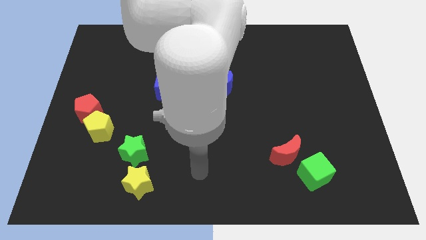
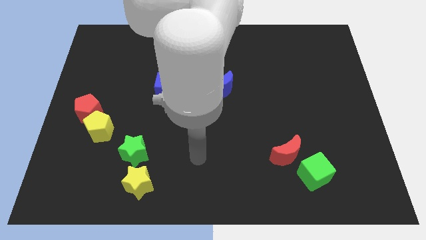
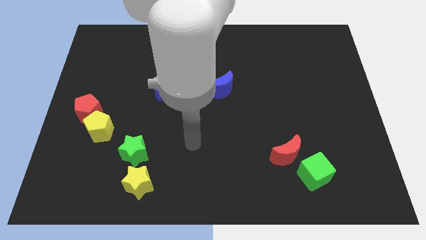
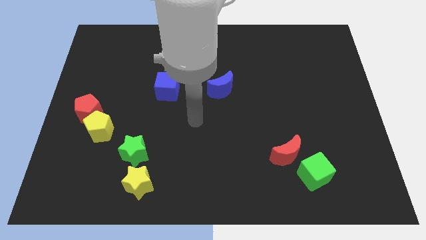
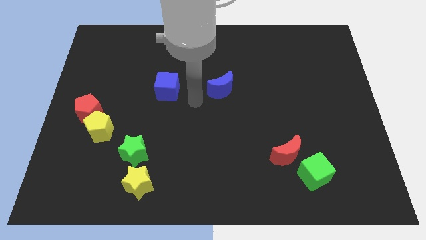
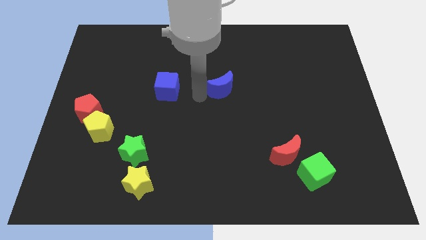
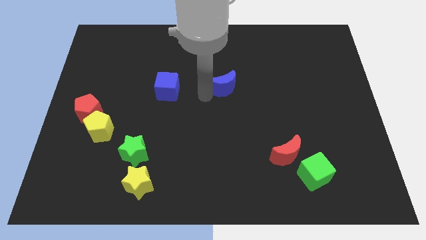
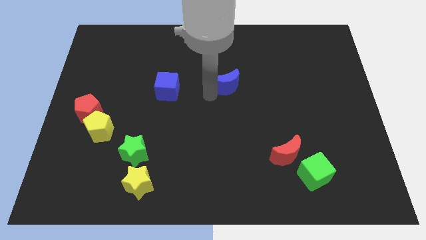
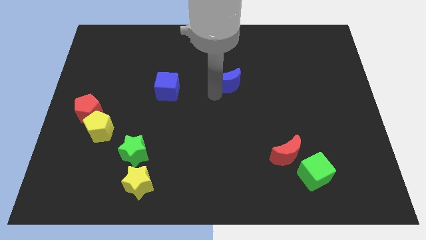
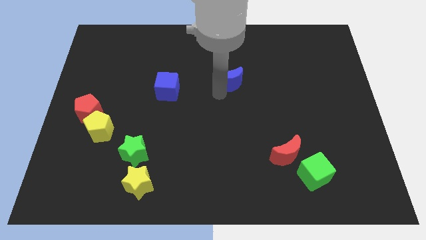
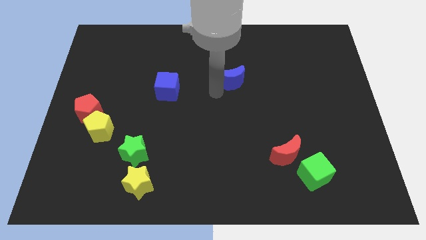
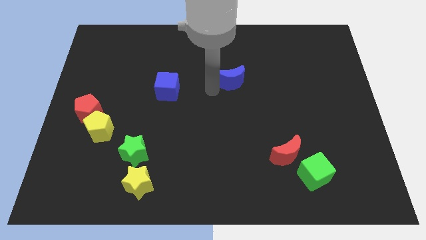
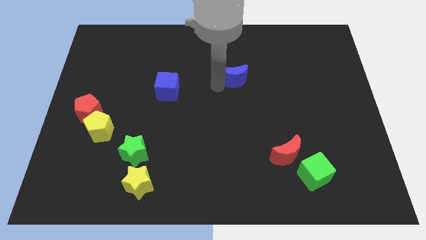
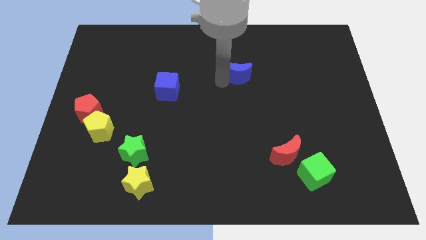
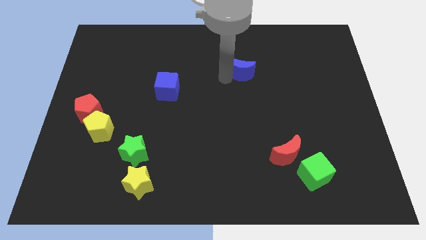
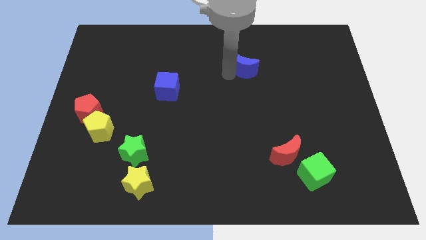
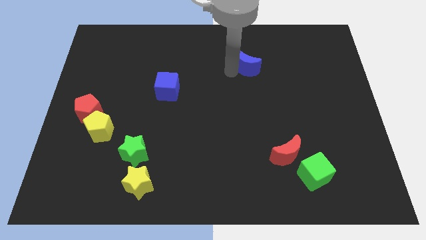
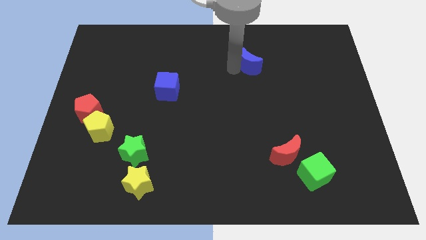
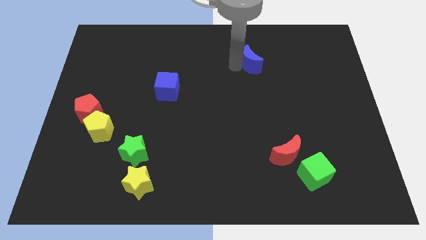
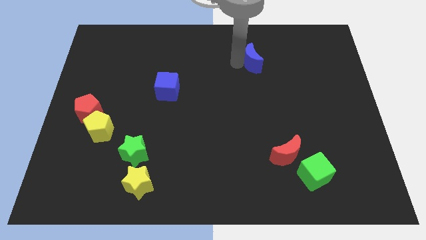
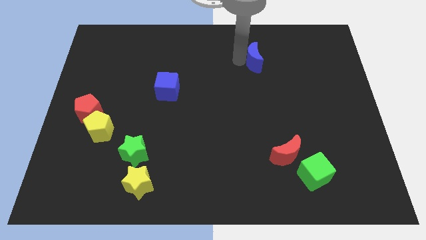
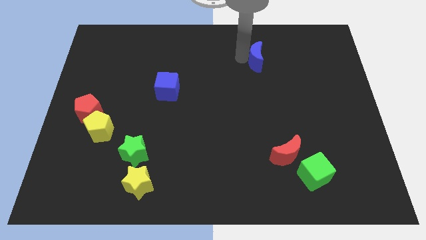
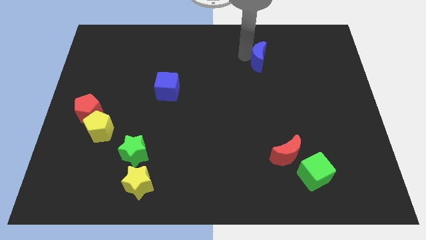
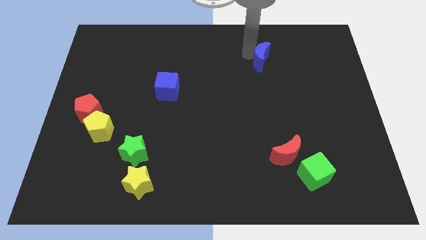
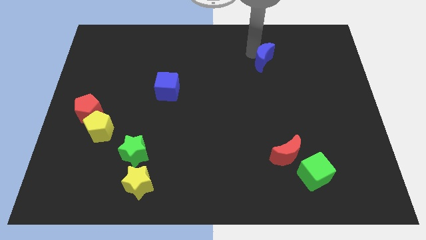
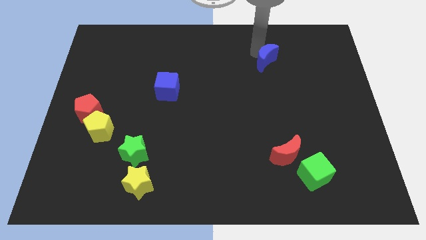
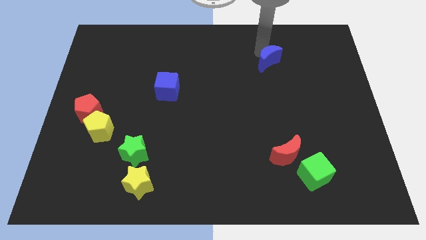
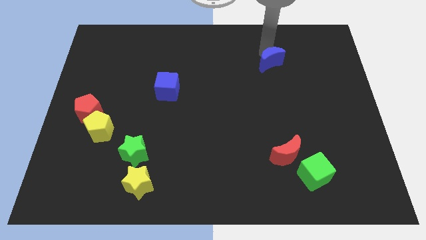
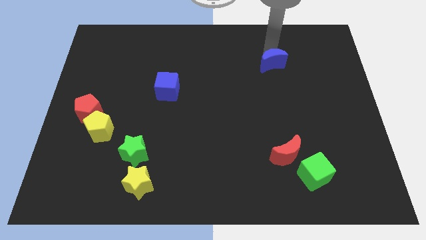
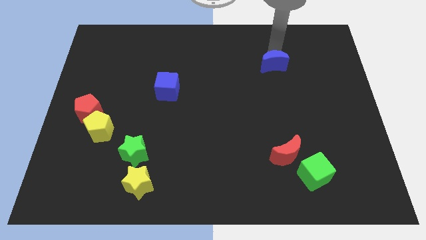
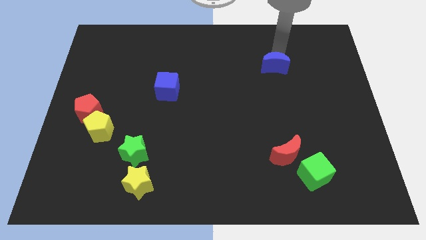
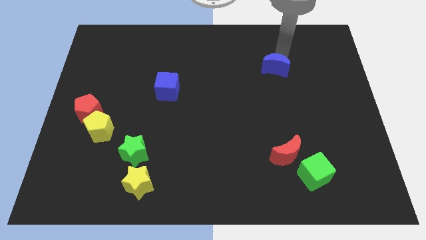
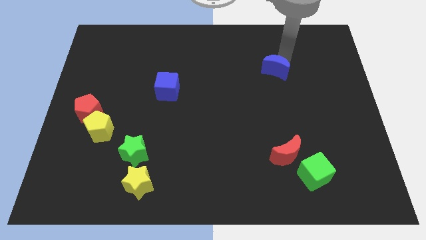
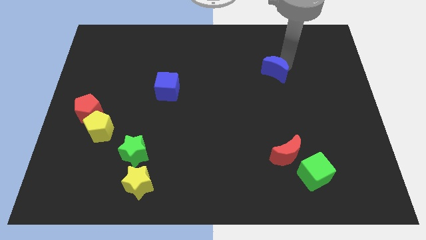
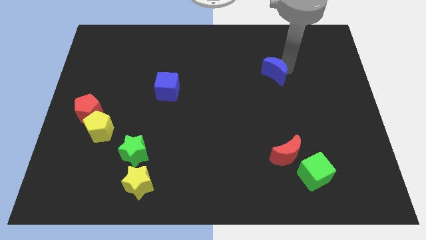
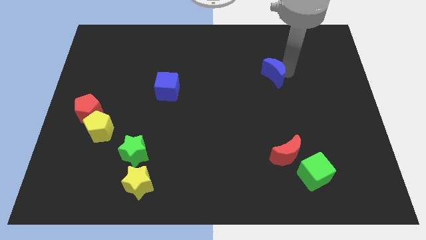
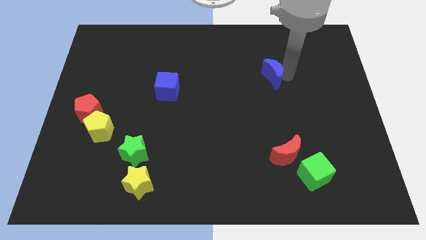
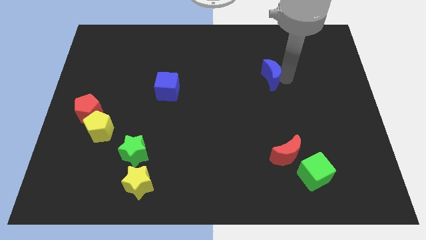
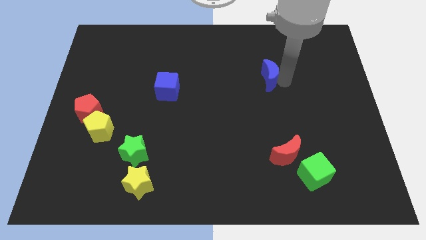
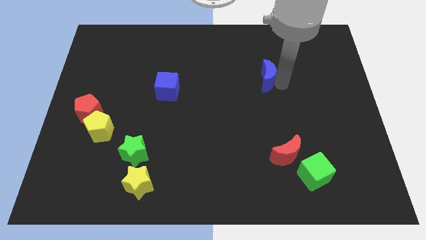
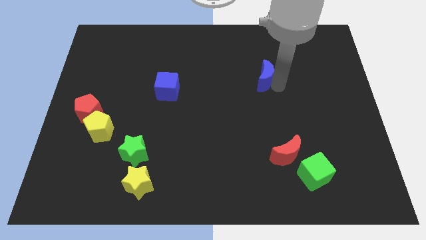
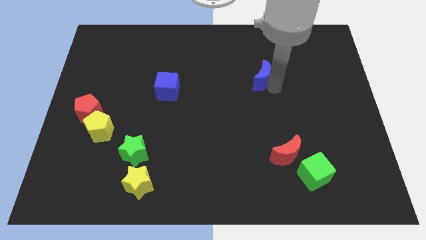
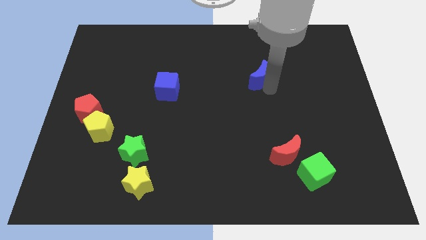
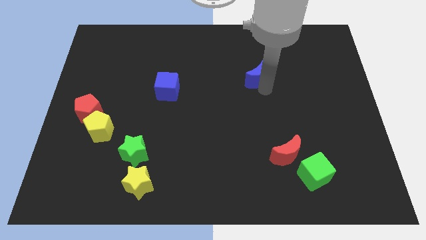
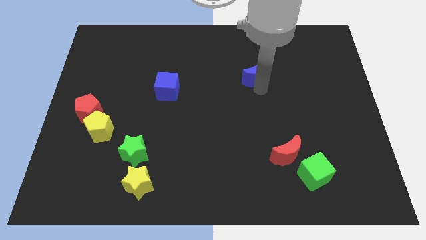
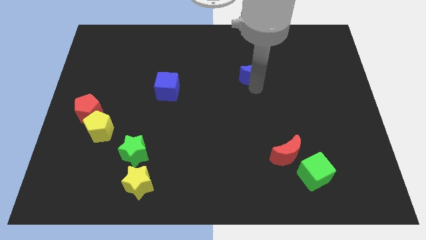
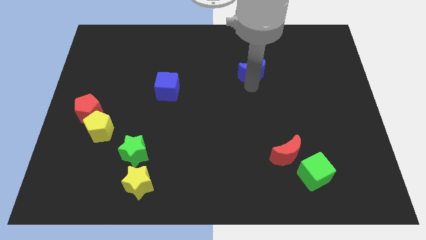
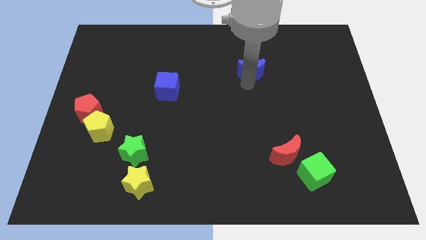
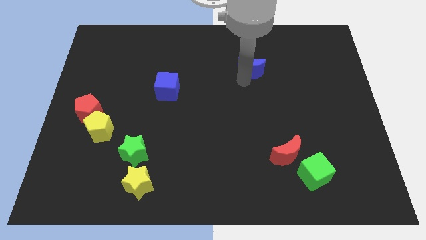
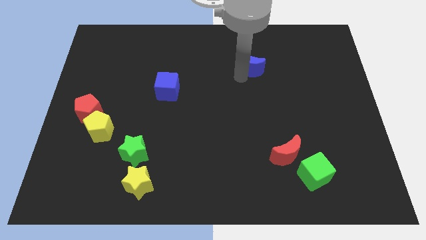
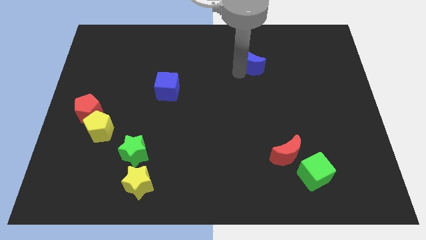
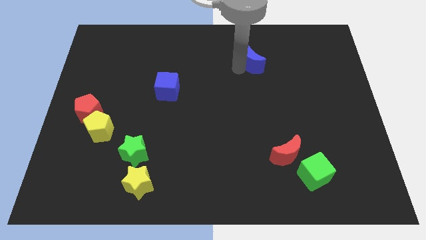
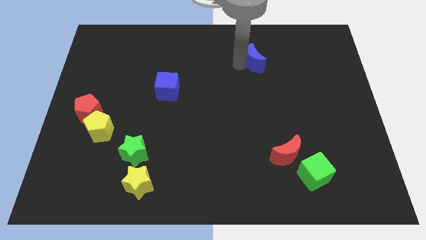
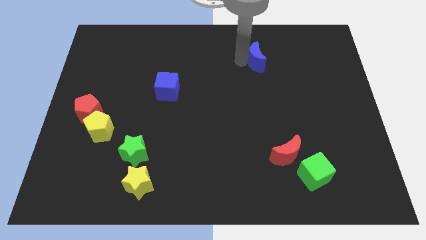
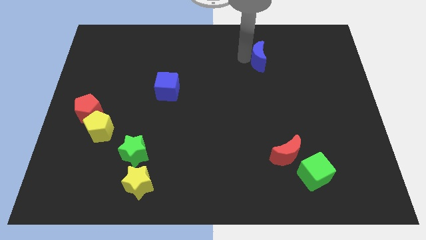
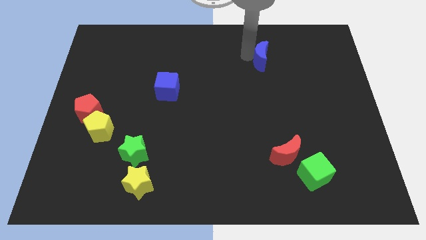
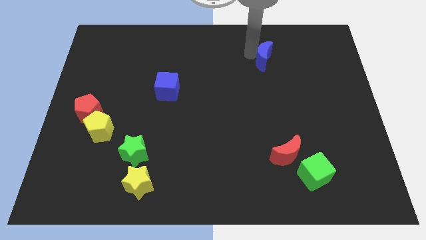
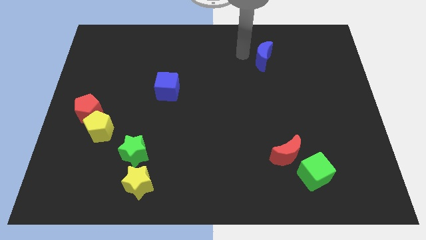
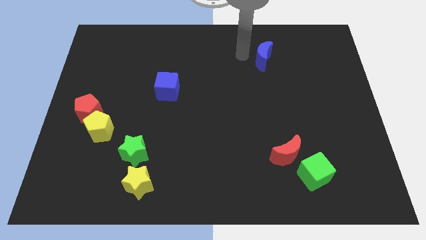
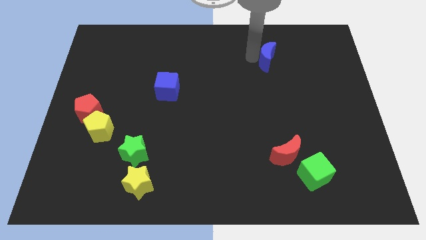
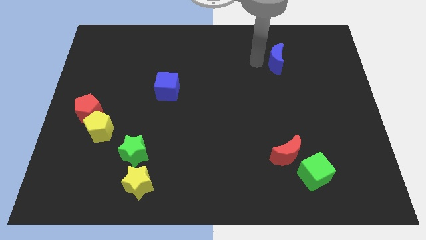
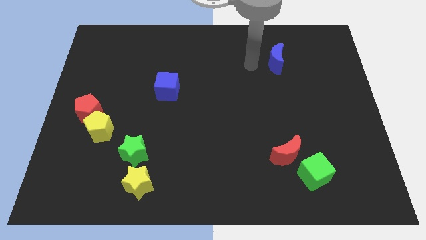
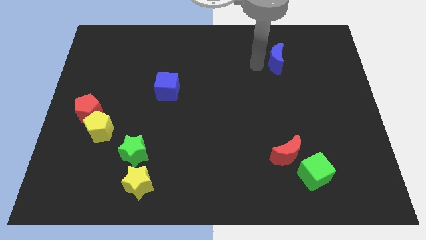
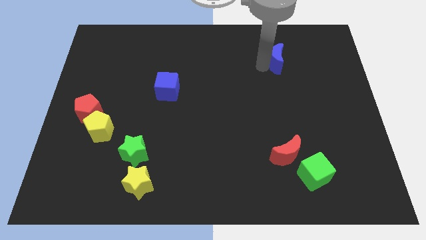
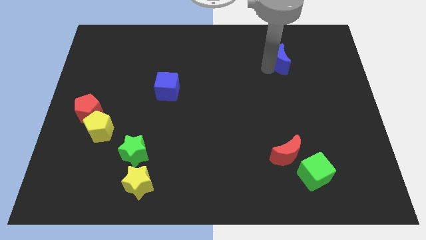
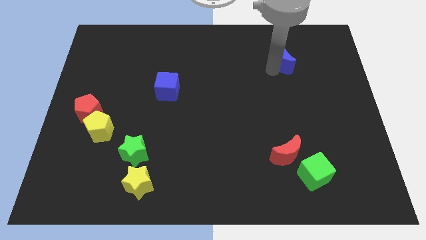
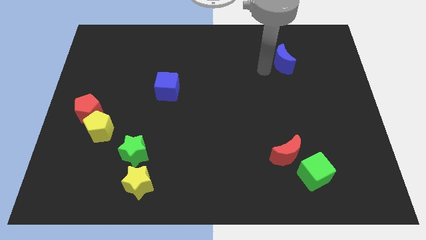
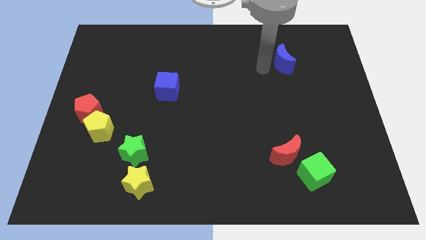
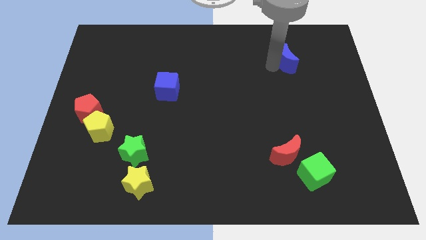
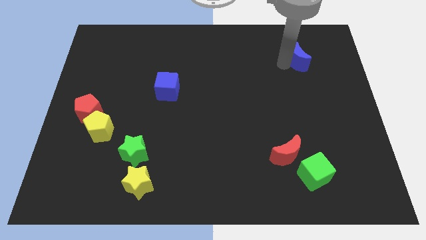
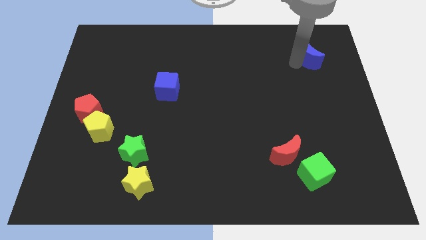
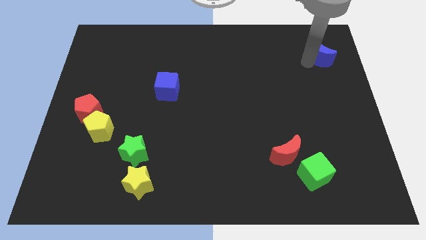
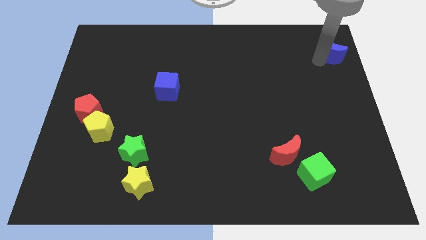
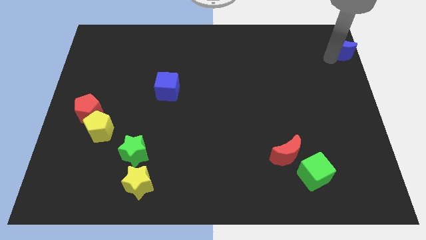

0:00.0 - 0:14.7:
move the blue moon to the top right of the board
